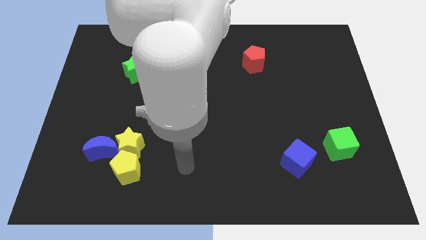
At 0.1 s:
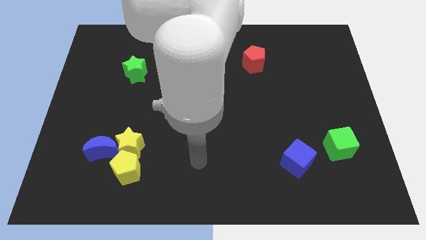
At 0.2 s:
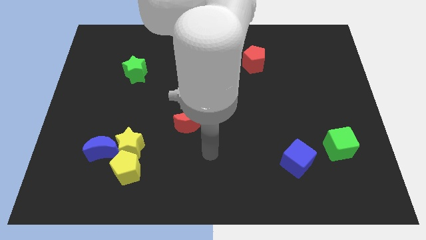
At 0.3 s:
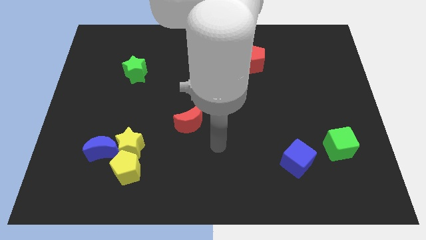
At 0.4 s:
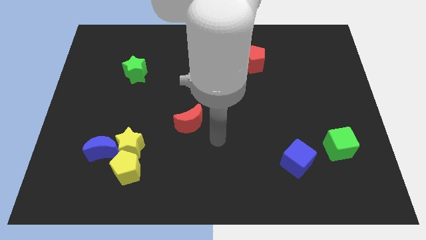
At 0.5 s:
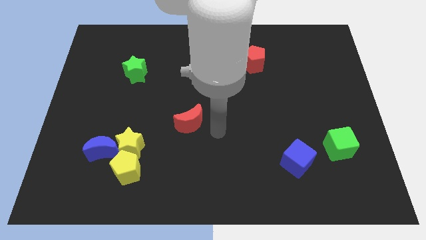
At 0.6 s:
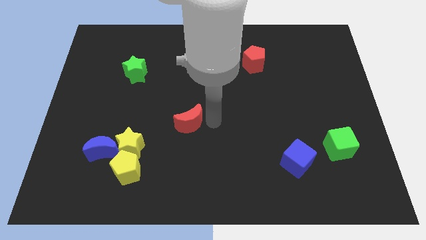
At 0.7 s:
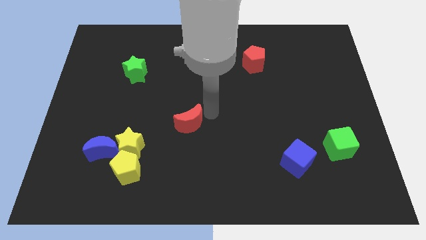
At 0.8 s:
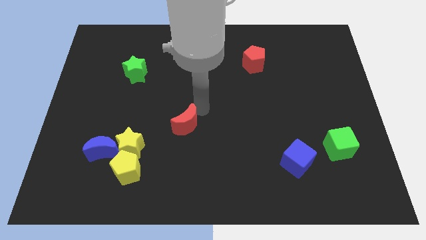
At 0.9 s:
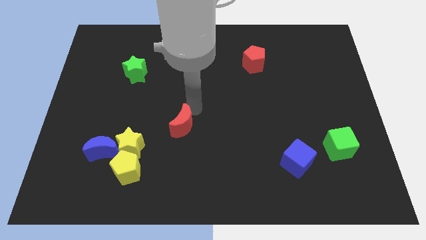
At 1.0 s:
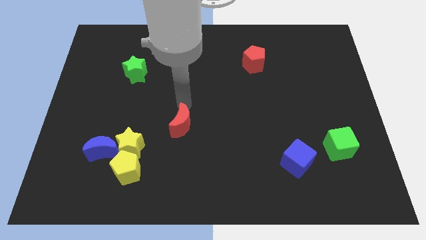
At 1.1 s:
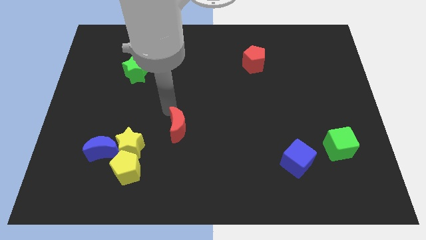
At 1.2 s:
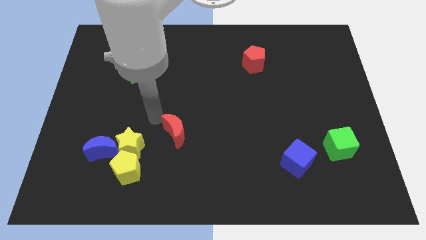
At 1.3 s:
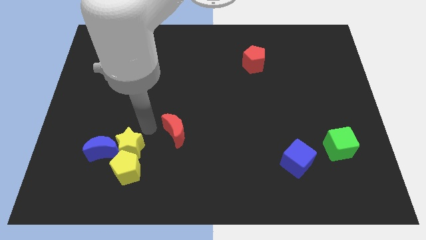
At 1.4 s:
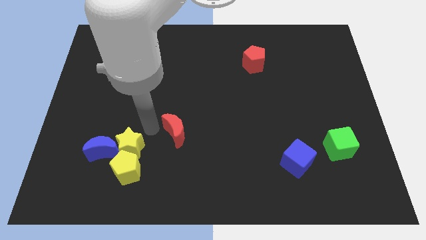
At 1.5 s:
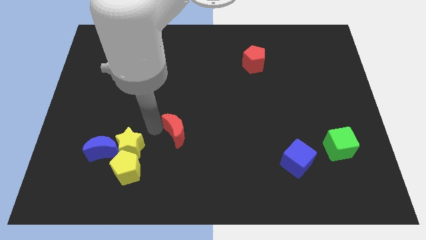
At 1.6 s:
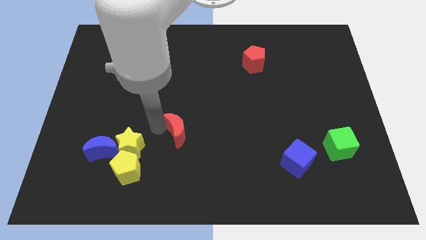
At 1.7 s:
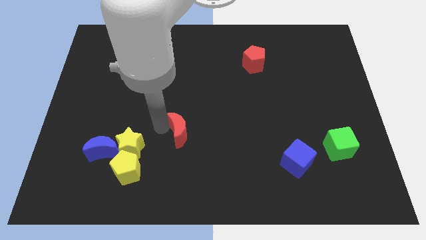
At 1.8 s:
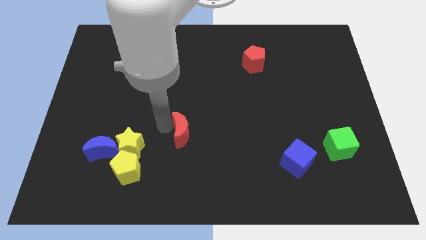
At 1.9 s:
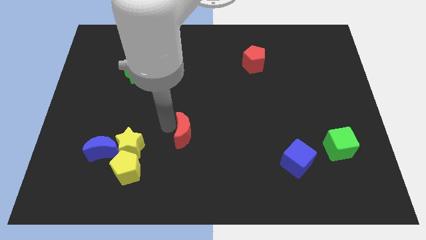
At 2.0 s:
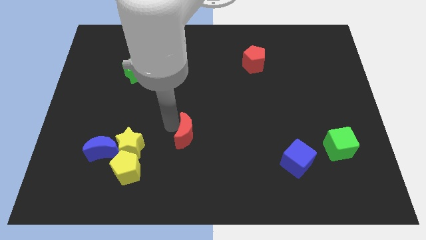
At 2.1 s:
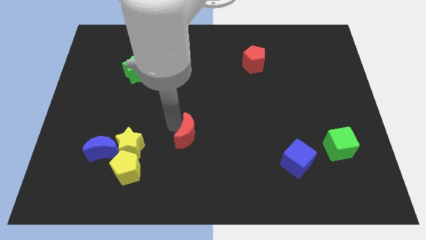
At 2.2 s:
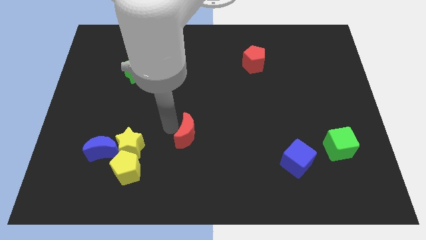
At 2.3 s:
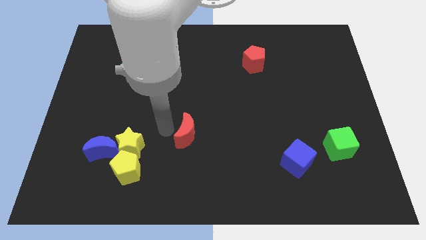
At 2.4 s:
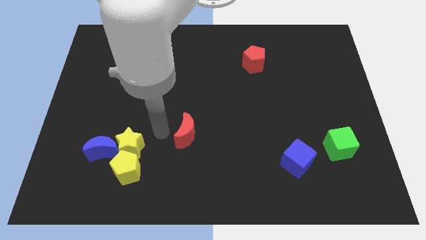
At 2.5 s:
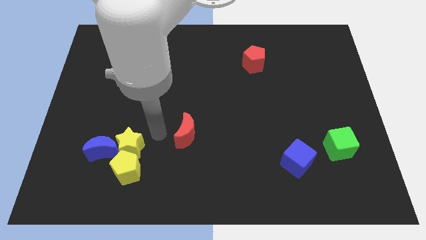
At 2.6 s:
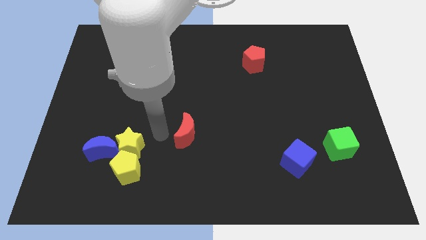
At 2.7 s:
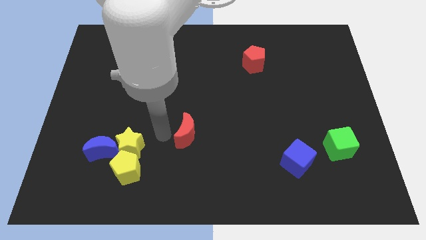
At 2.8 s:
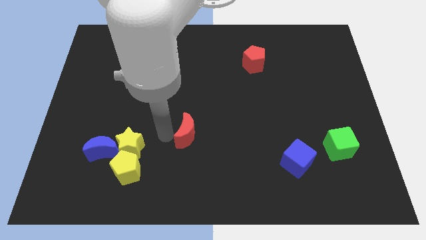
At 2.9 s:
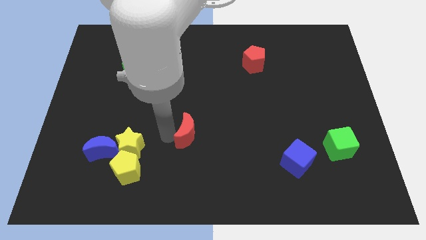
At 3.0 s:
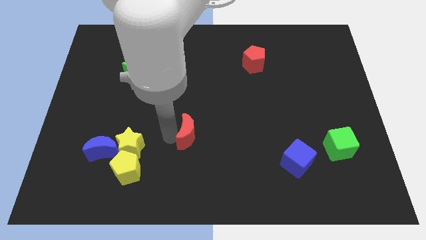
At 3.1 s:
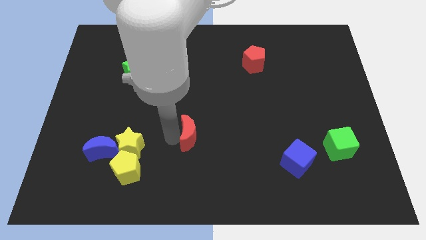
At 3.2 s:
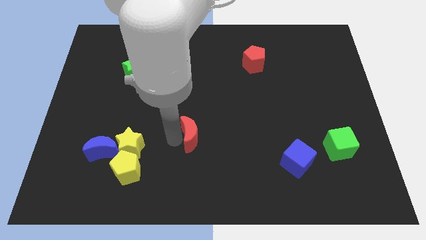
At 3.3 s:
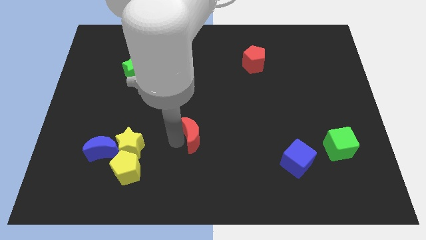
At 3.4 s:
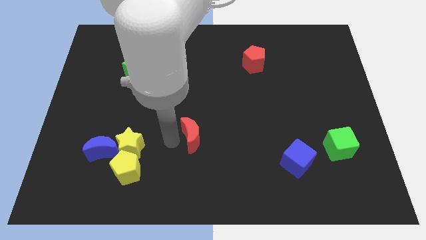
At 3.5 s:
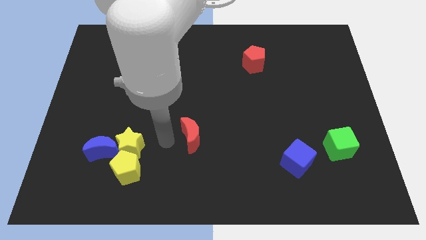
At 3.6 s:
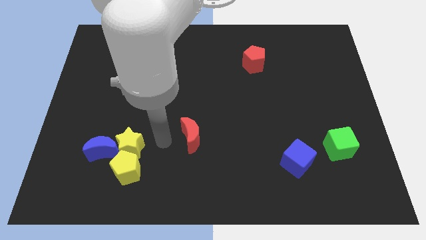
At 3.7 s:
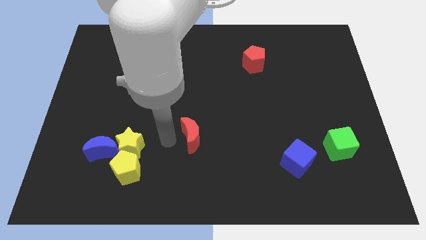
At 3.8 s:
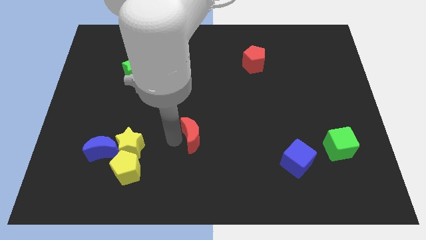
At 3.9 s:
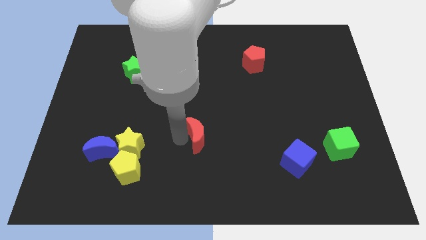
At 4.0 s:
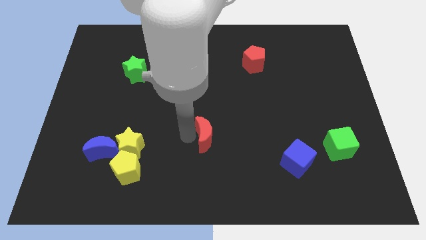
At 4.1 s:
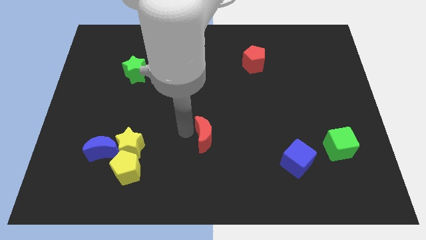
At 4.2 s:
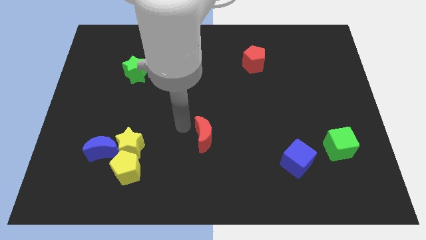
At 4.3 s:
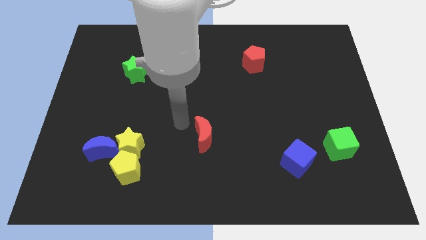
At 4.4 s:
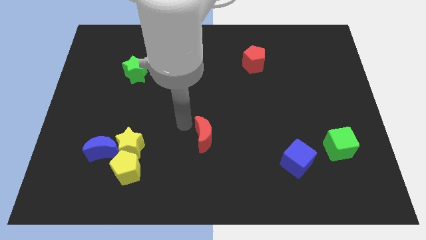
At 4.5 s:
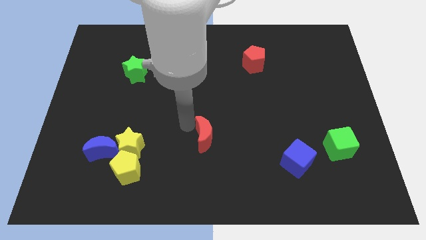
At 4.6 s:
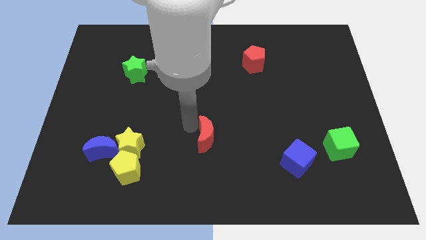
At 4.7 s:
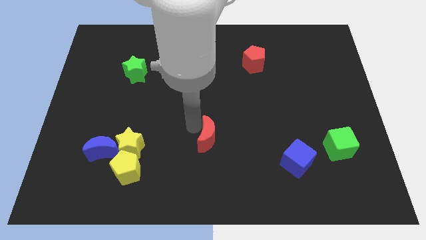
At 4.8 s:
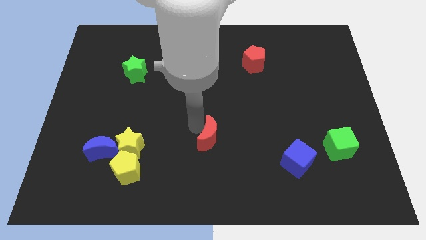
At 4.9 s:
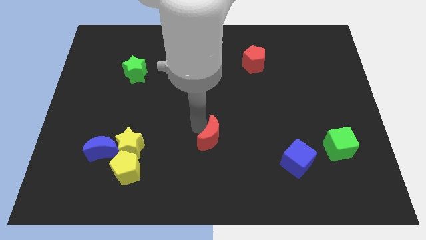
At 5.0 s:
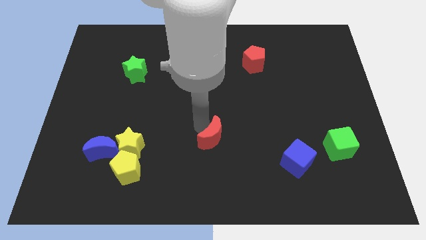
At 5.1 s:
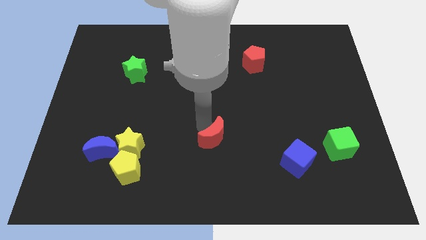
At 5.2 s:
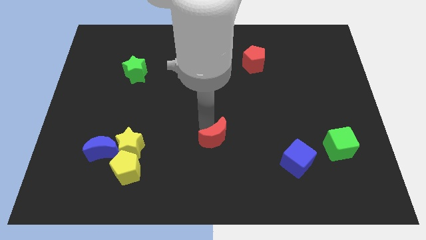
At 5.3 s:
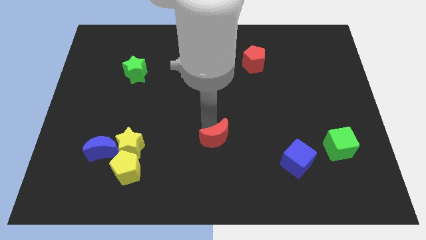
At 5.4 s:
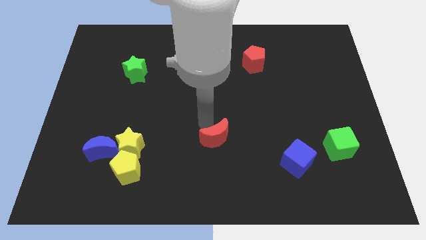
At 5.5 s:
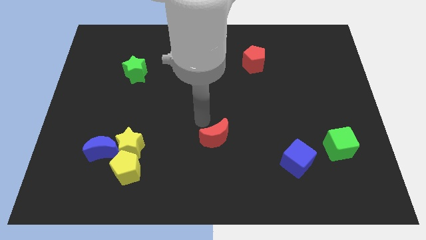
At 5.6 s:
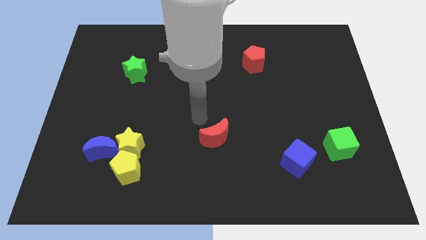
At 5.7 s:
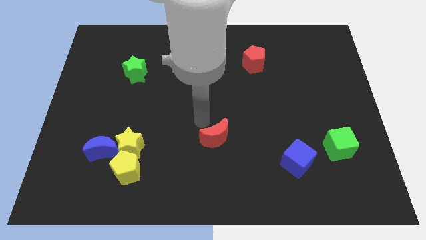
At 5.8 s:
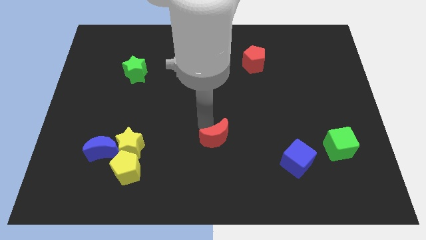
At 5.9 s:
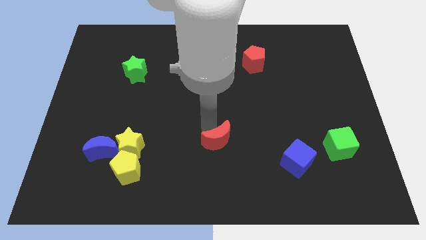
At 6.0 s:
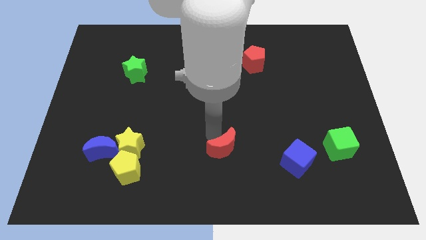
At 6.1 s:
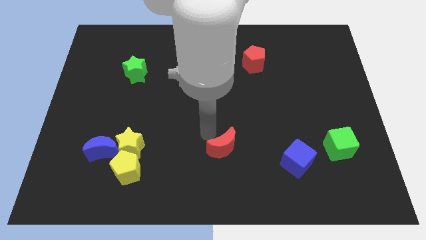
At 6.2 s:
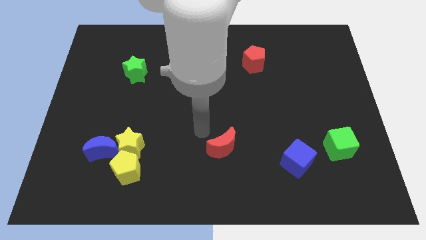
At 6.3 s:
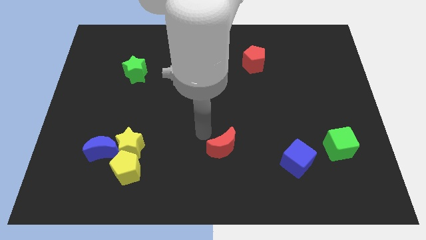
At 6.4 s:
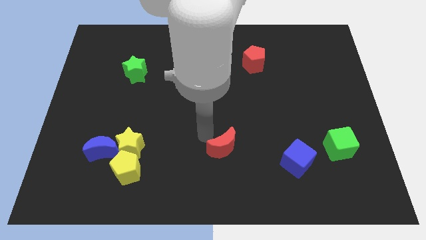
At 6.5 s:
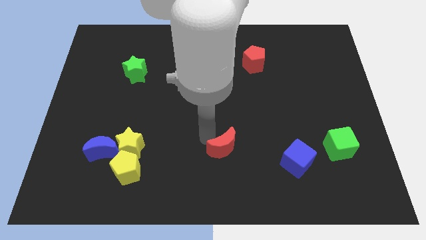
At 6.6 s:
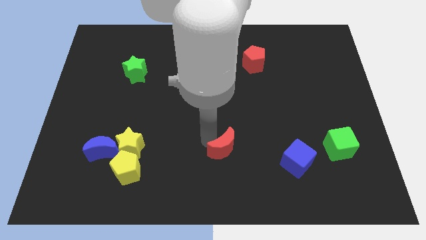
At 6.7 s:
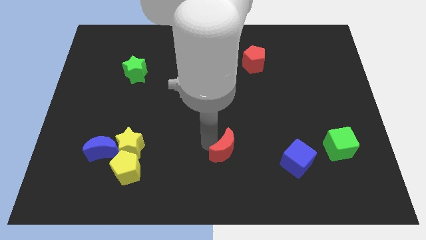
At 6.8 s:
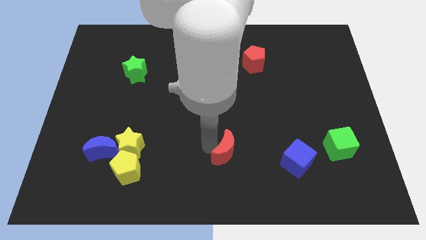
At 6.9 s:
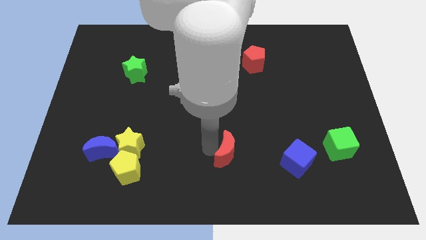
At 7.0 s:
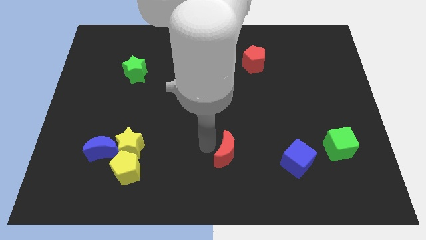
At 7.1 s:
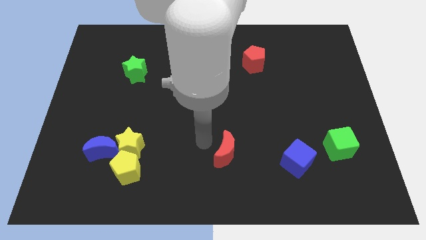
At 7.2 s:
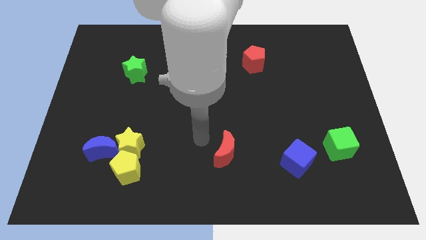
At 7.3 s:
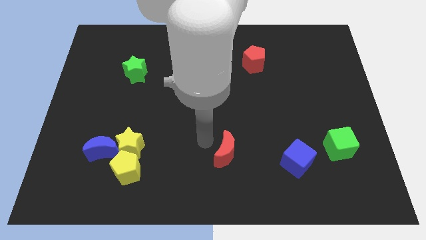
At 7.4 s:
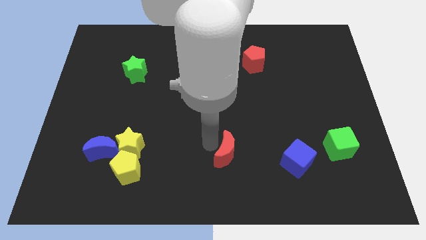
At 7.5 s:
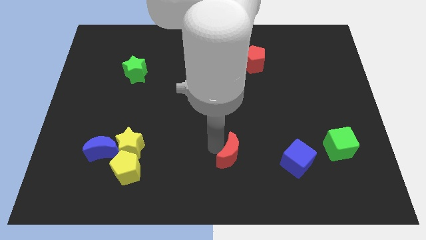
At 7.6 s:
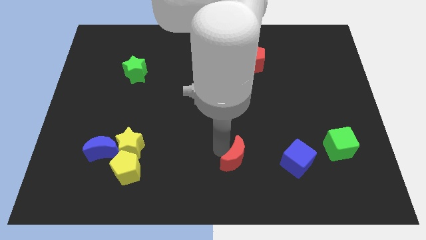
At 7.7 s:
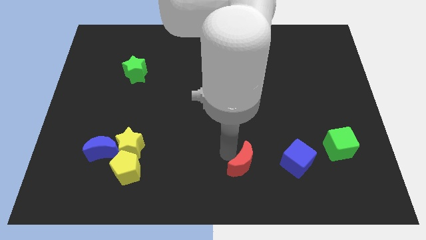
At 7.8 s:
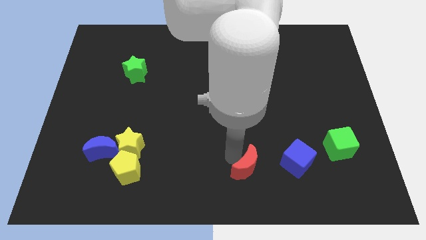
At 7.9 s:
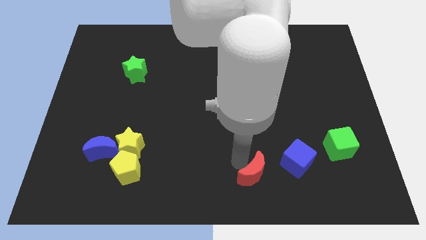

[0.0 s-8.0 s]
push the red moon to the bottom left side of the blue cube
